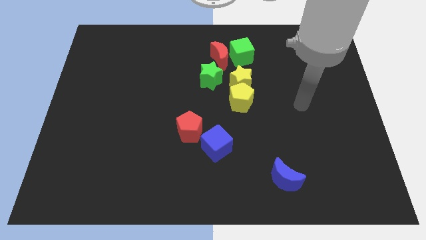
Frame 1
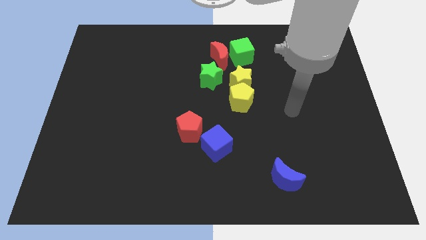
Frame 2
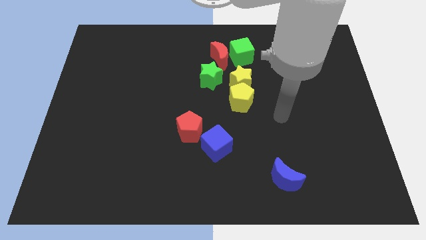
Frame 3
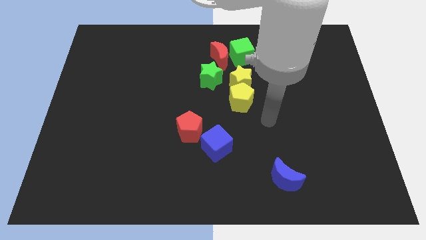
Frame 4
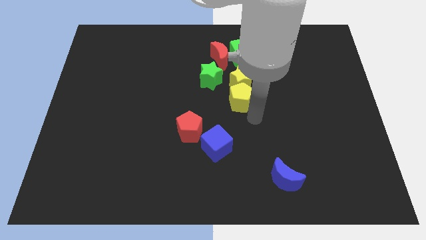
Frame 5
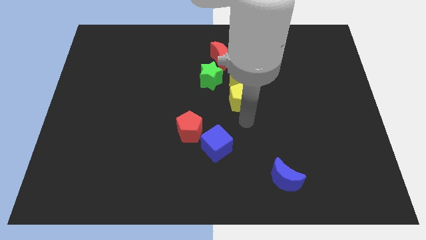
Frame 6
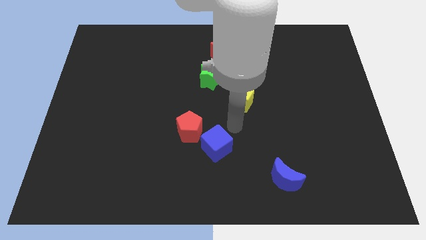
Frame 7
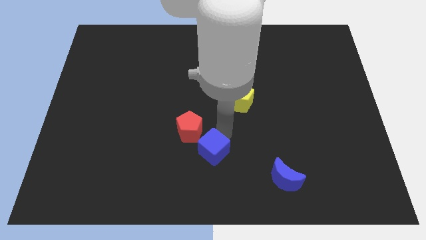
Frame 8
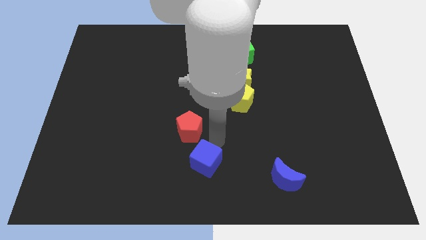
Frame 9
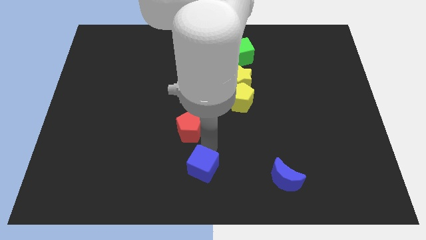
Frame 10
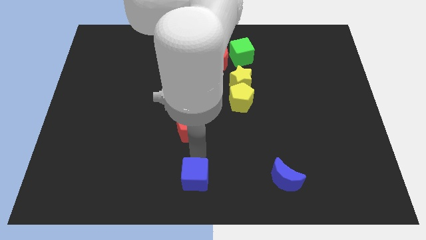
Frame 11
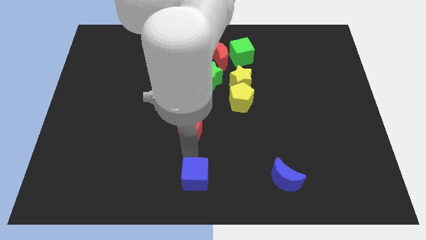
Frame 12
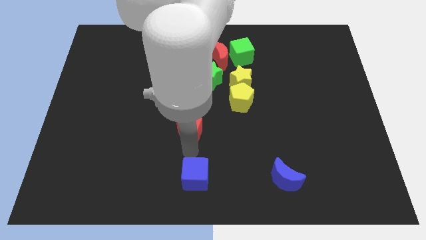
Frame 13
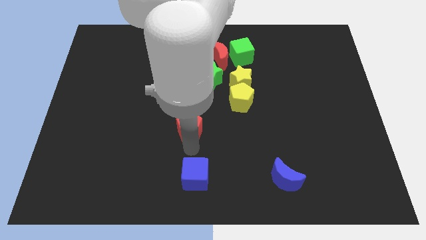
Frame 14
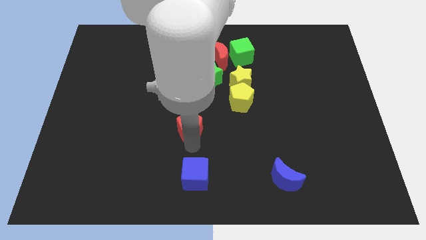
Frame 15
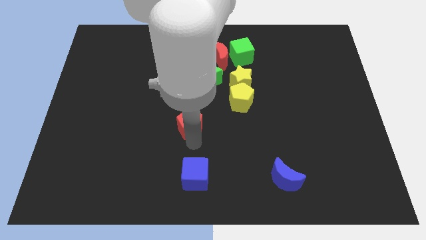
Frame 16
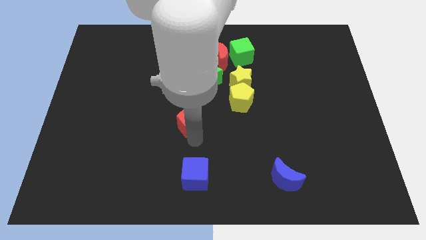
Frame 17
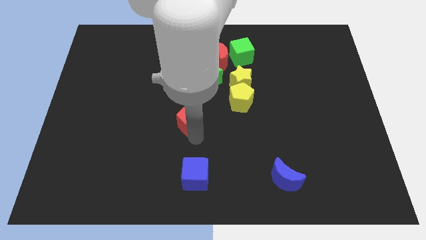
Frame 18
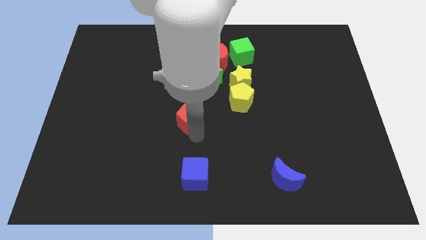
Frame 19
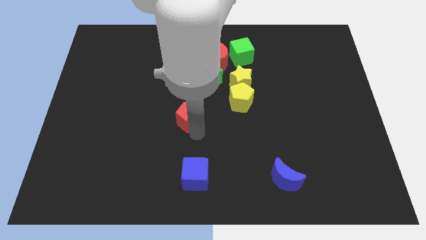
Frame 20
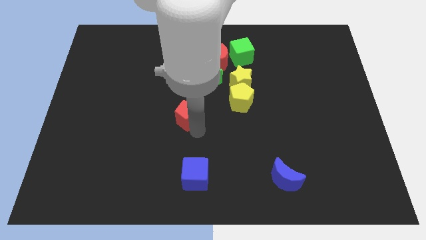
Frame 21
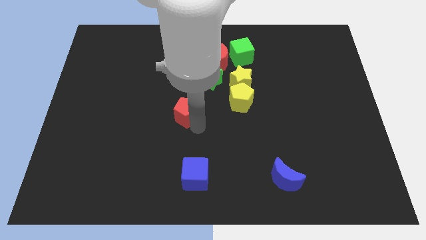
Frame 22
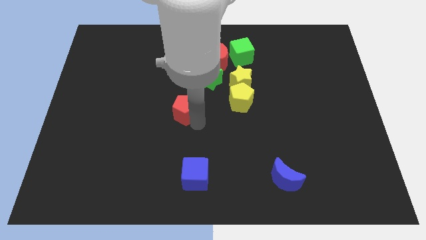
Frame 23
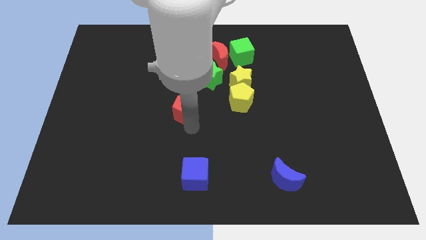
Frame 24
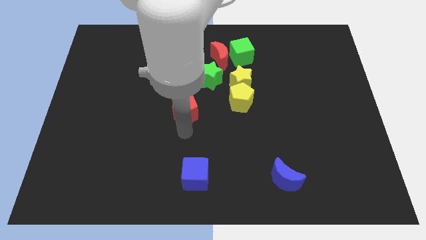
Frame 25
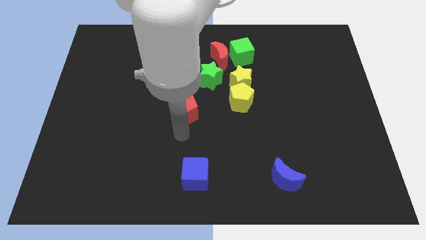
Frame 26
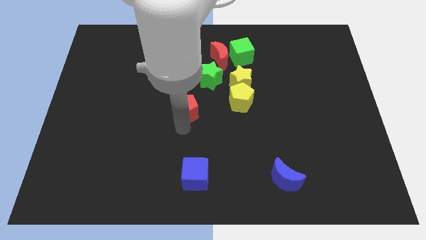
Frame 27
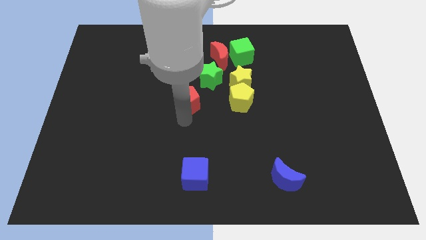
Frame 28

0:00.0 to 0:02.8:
slide the red pentagon upwards a bit

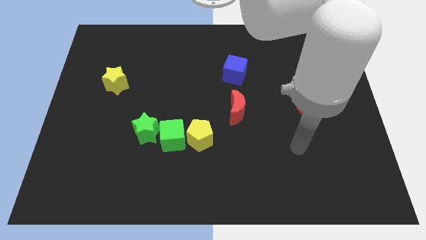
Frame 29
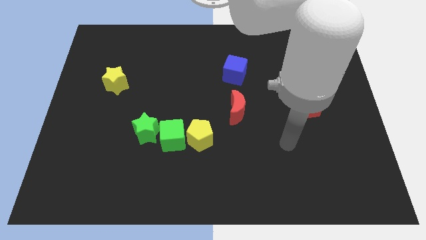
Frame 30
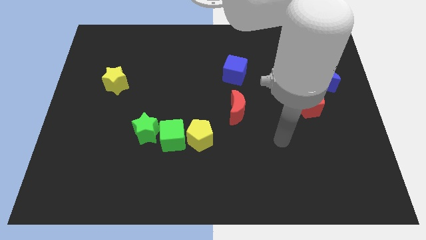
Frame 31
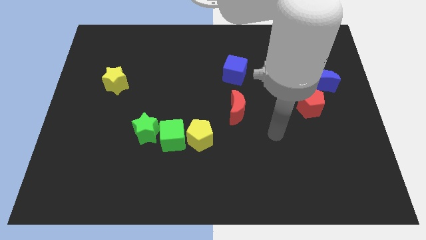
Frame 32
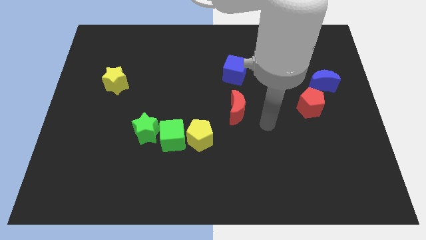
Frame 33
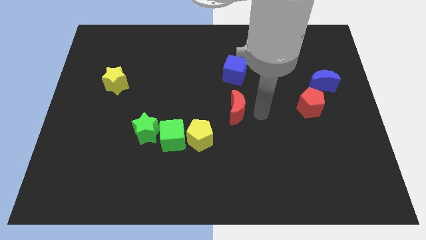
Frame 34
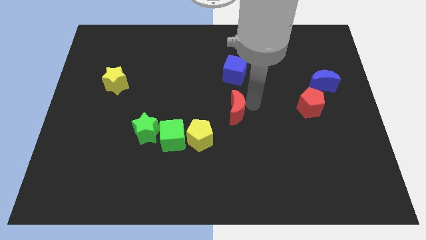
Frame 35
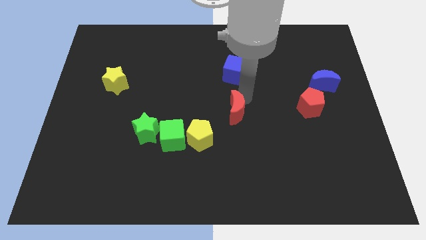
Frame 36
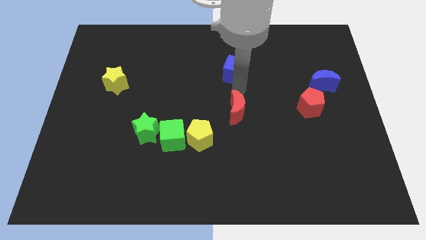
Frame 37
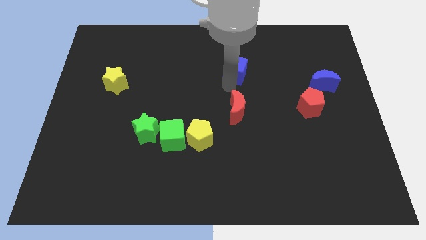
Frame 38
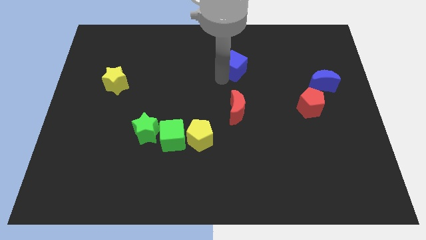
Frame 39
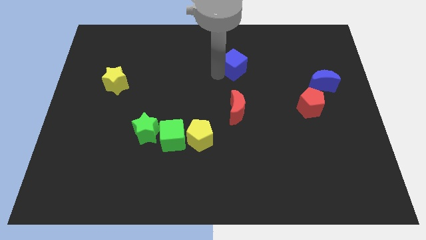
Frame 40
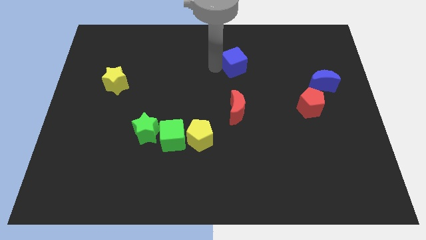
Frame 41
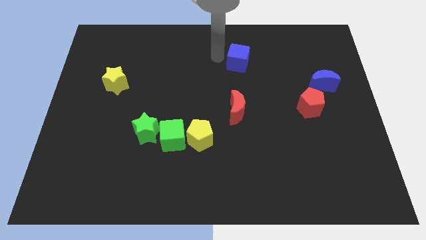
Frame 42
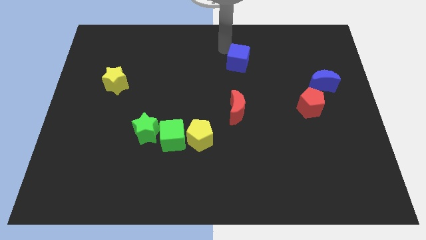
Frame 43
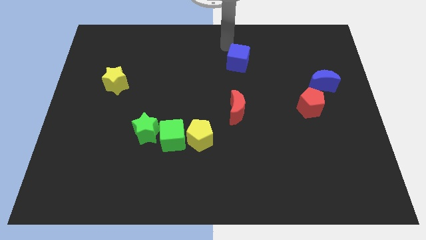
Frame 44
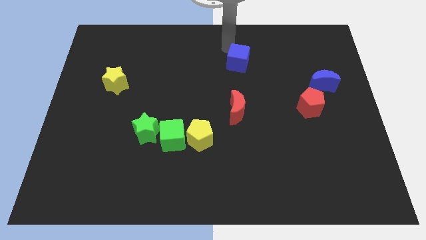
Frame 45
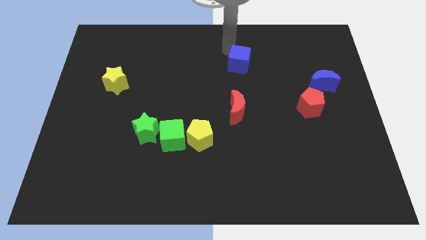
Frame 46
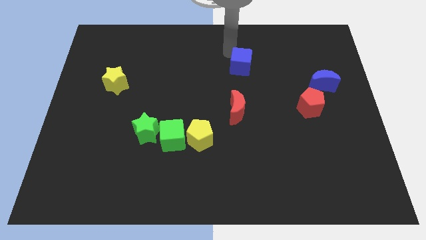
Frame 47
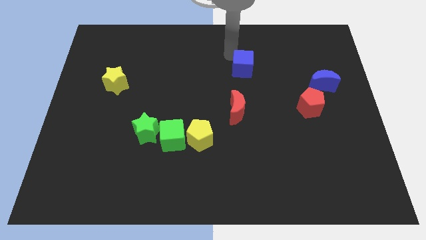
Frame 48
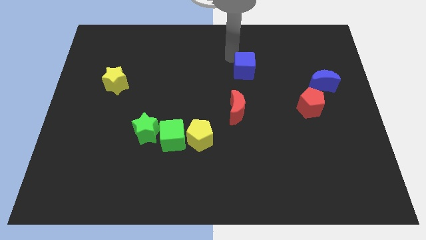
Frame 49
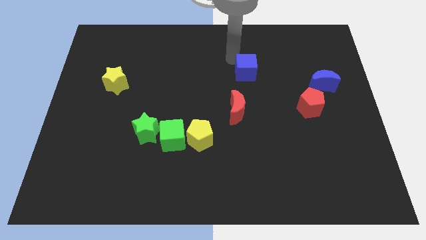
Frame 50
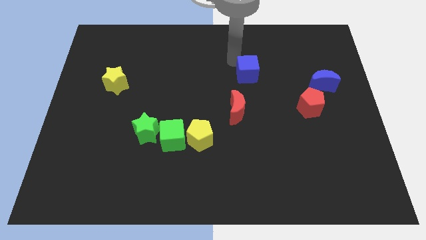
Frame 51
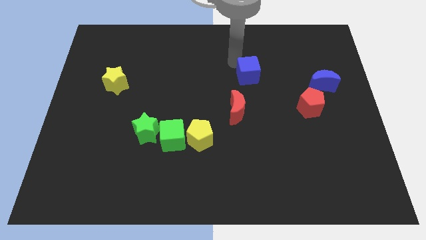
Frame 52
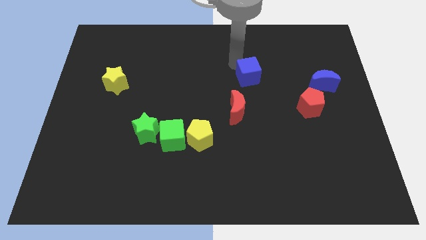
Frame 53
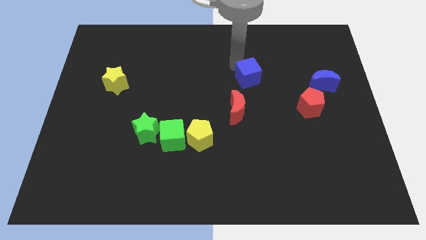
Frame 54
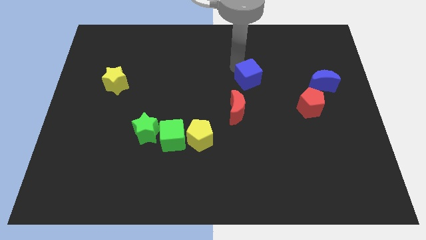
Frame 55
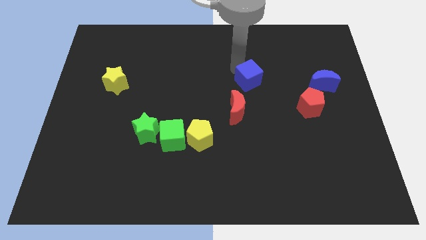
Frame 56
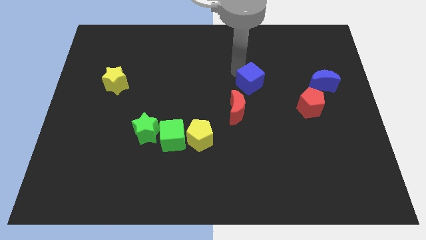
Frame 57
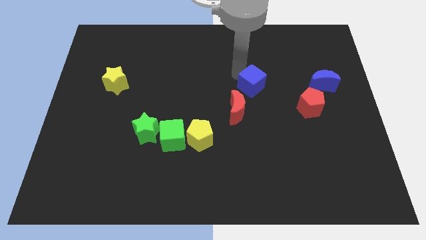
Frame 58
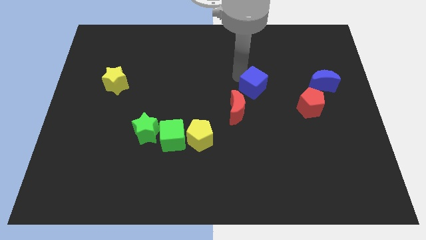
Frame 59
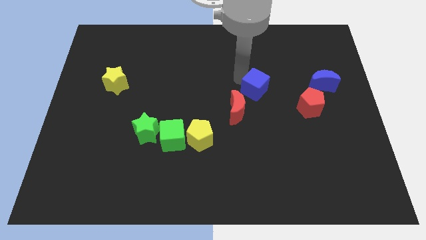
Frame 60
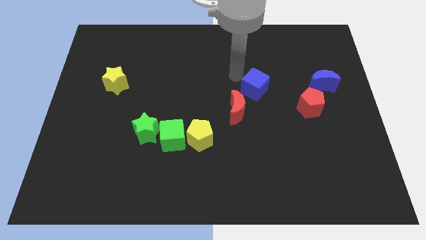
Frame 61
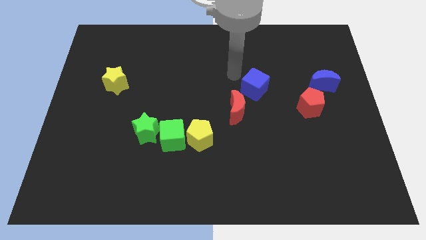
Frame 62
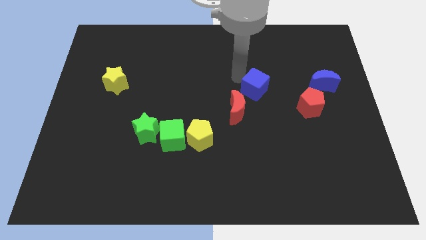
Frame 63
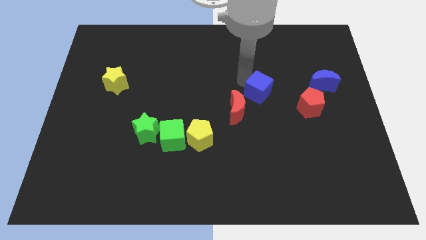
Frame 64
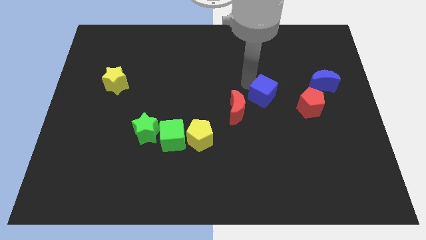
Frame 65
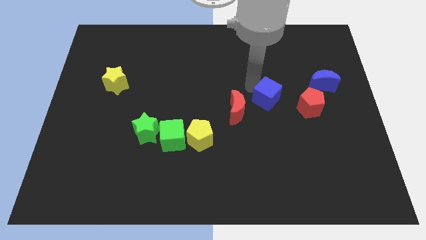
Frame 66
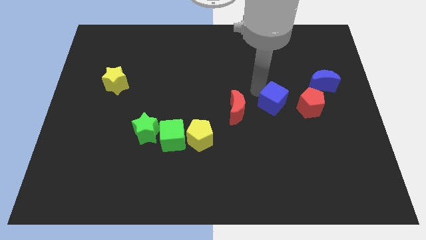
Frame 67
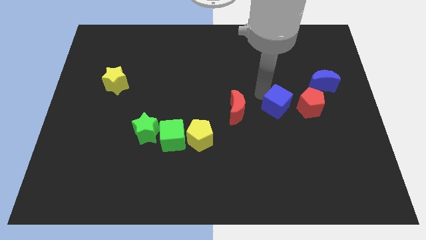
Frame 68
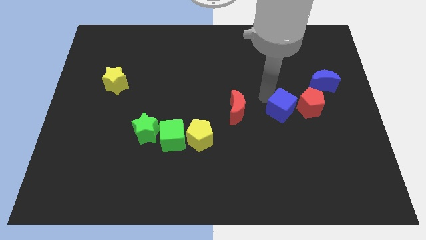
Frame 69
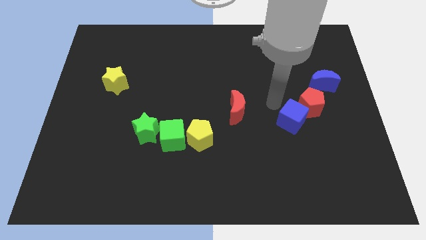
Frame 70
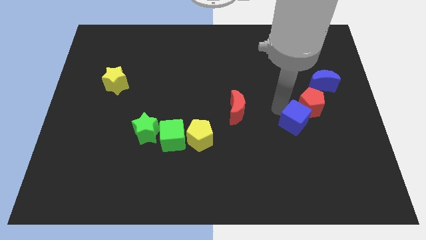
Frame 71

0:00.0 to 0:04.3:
slide the blue cube diagonally downwards and to the right

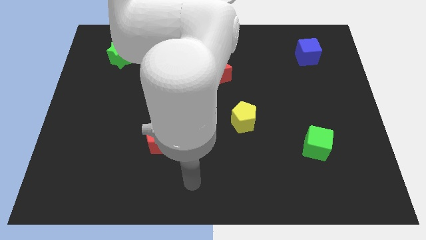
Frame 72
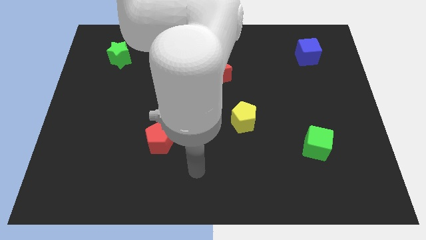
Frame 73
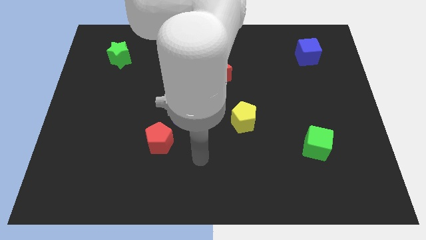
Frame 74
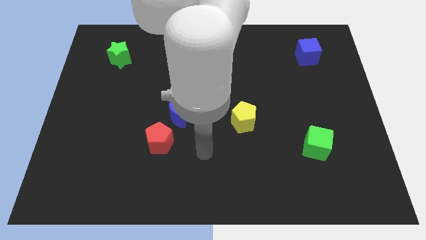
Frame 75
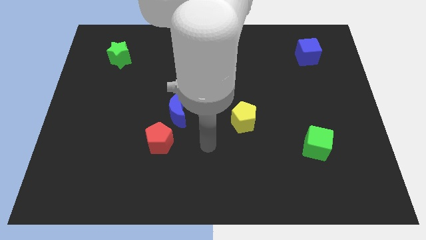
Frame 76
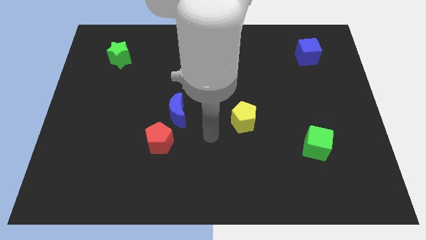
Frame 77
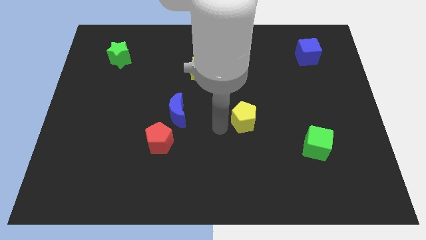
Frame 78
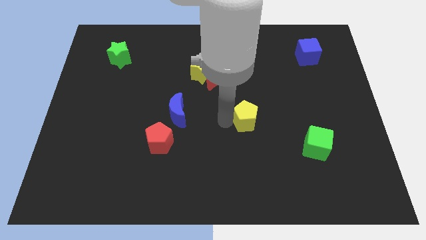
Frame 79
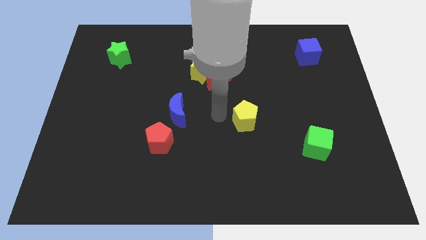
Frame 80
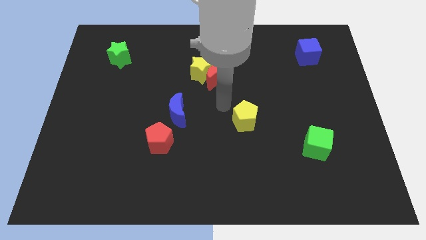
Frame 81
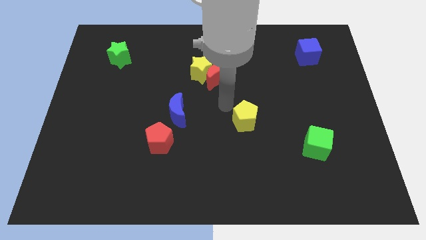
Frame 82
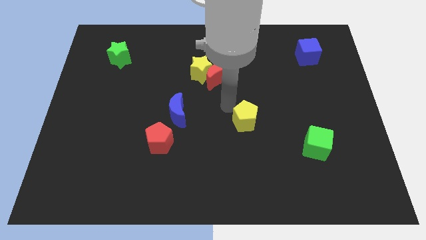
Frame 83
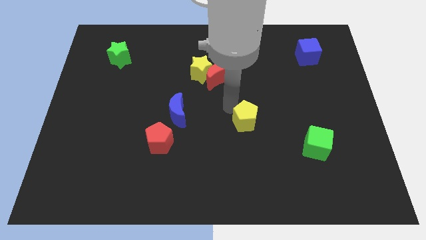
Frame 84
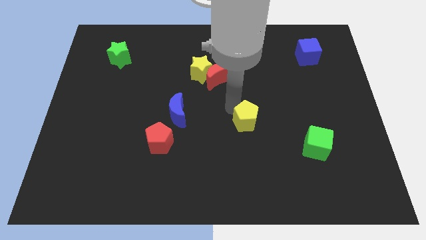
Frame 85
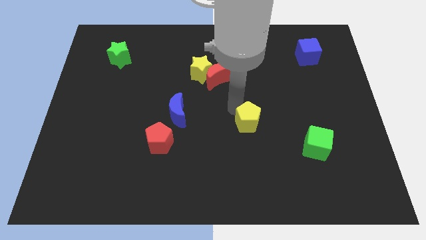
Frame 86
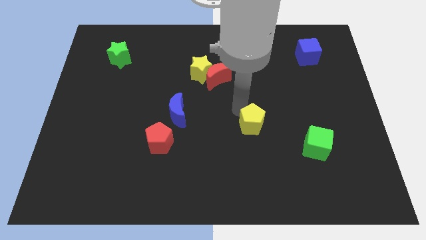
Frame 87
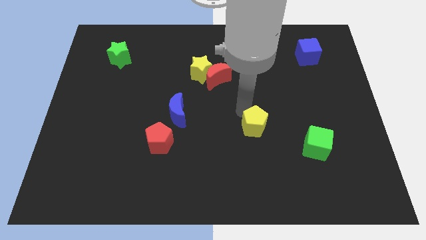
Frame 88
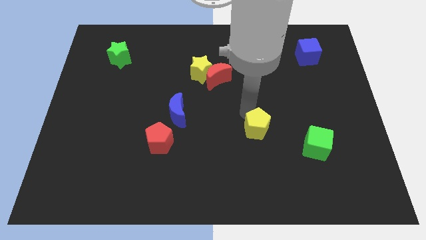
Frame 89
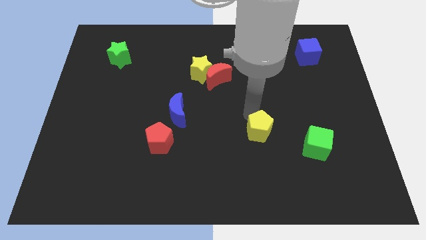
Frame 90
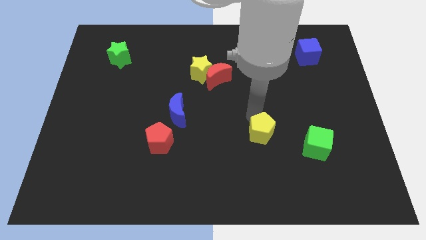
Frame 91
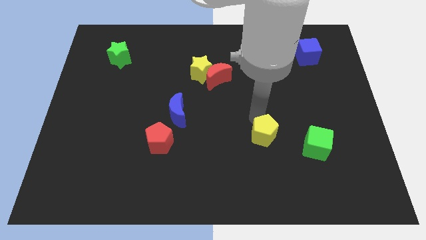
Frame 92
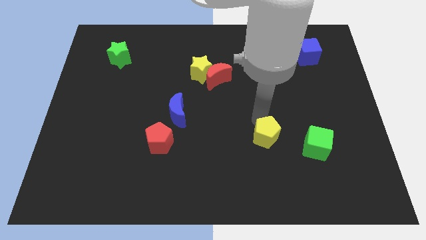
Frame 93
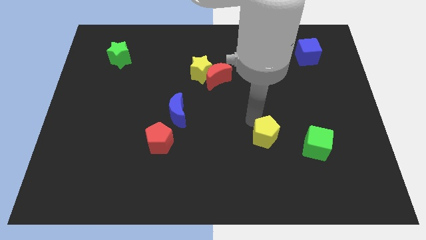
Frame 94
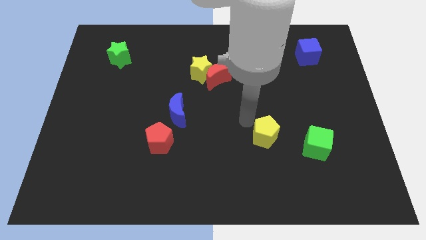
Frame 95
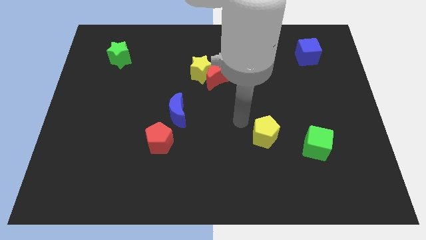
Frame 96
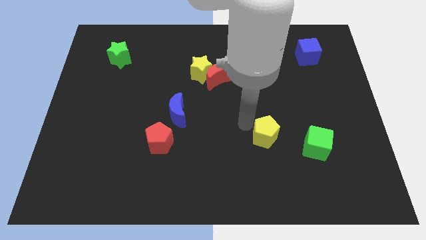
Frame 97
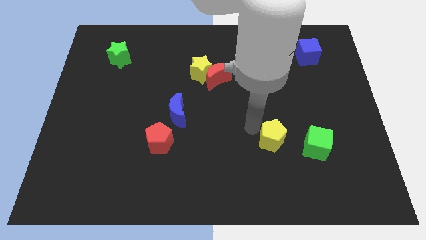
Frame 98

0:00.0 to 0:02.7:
move the yellow pentagon down and to the right diagonally a little bit
